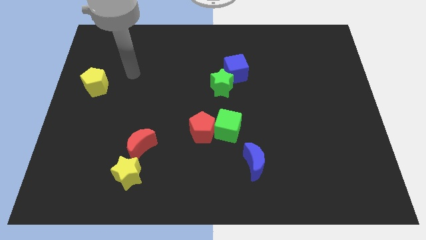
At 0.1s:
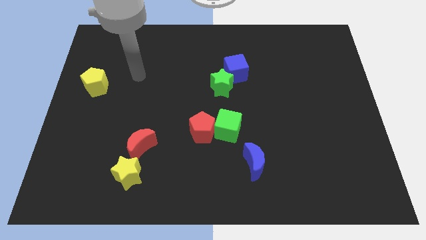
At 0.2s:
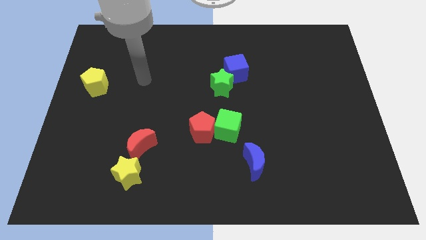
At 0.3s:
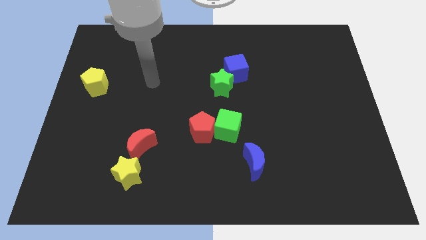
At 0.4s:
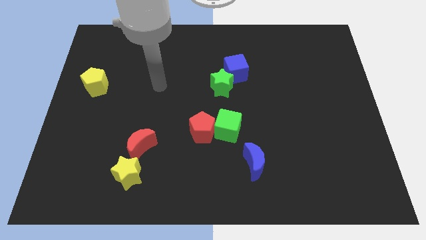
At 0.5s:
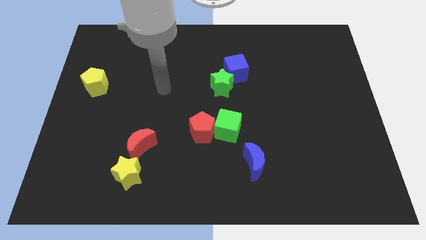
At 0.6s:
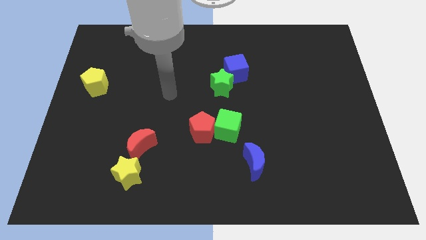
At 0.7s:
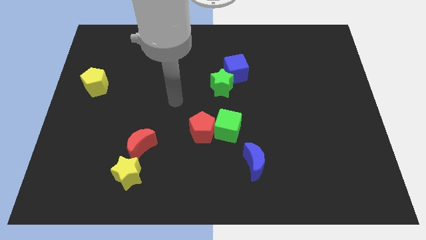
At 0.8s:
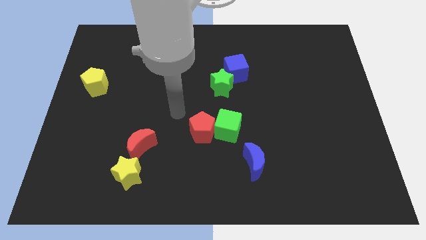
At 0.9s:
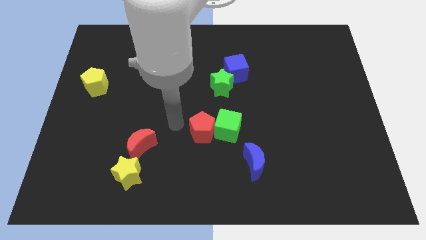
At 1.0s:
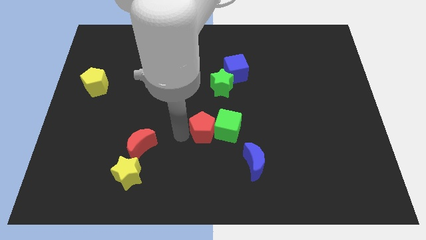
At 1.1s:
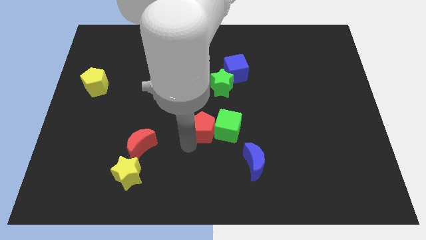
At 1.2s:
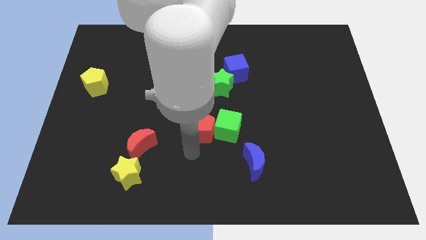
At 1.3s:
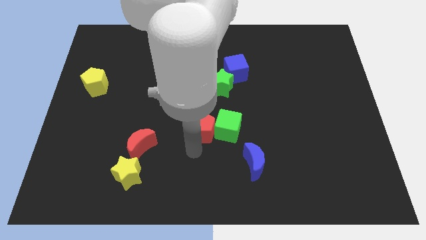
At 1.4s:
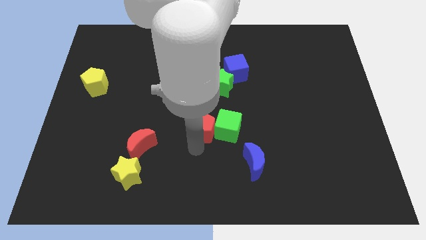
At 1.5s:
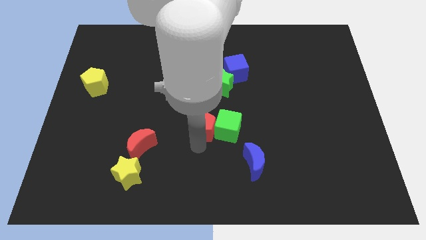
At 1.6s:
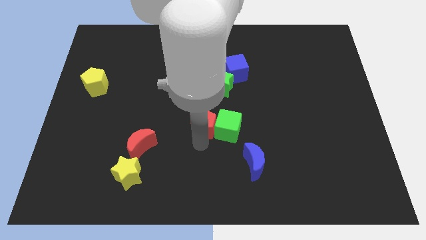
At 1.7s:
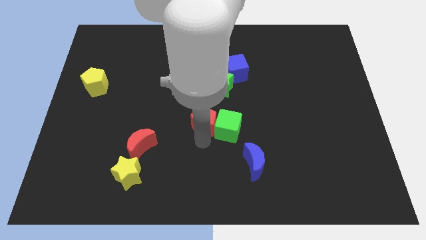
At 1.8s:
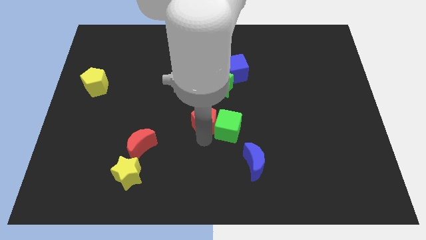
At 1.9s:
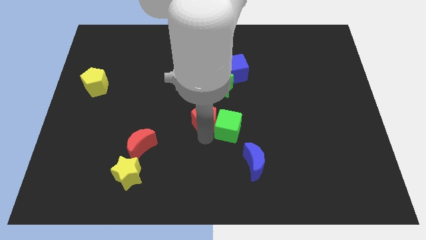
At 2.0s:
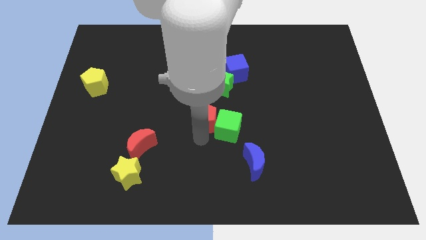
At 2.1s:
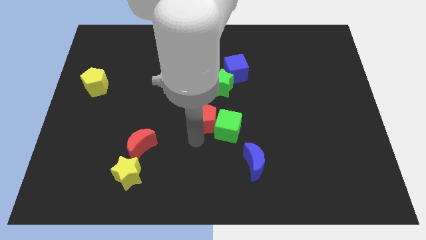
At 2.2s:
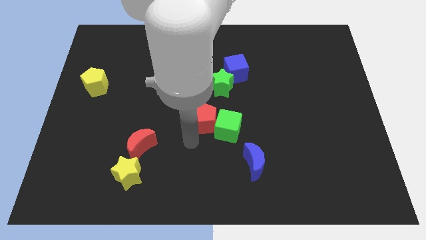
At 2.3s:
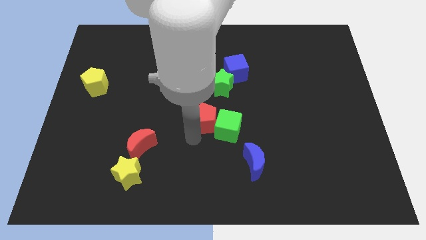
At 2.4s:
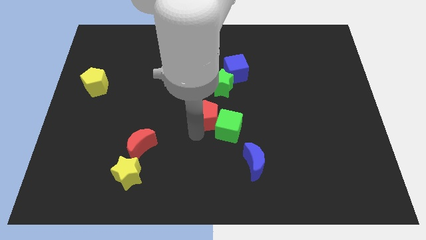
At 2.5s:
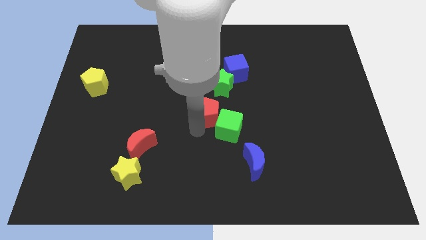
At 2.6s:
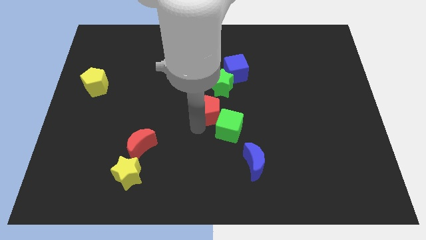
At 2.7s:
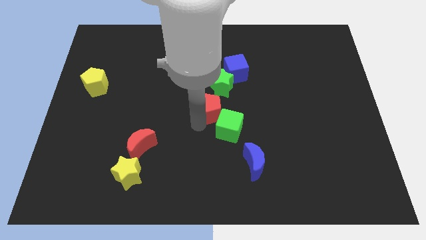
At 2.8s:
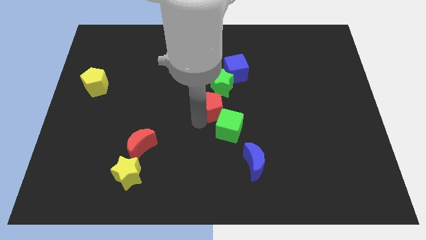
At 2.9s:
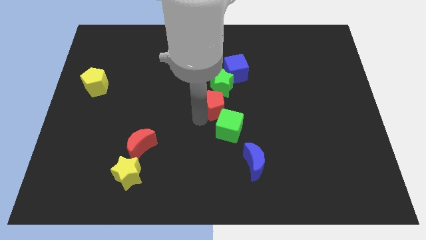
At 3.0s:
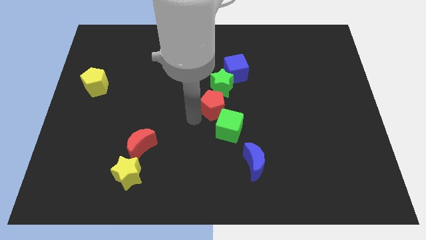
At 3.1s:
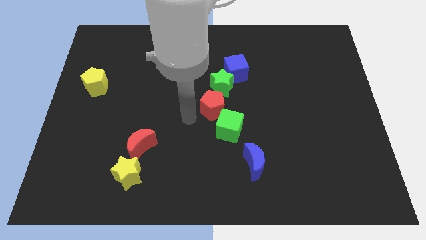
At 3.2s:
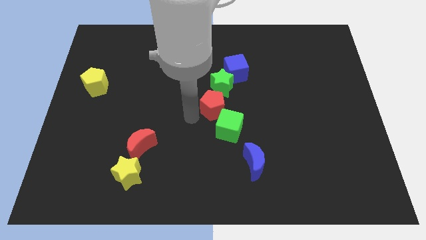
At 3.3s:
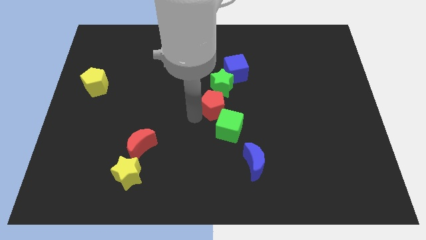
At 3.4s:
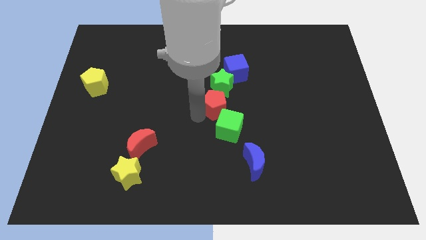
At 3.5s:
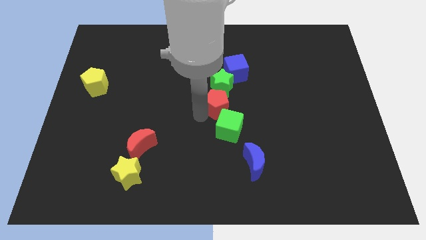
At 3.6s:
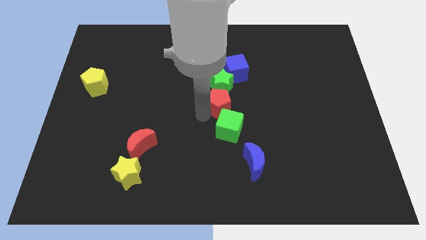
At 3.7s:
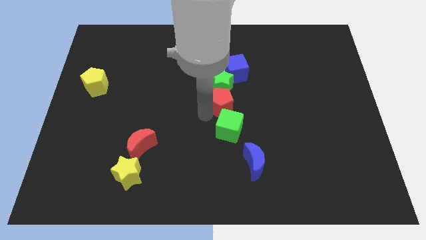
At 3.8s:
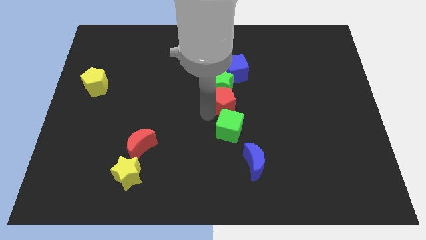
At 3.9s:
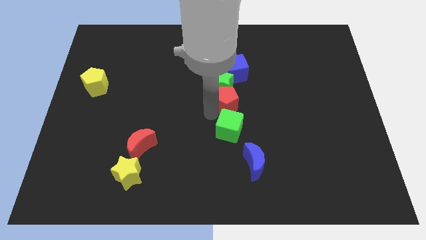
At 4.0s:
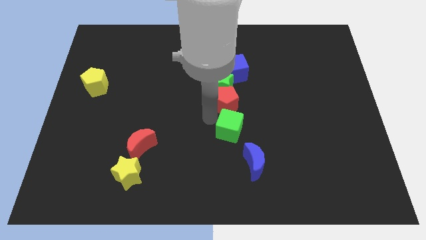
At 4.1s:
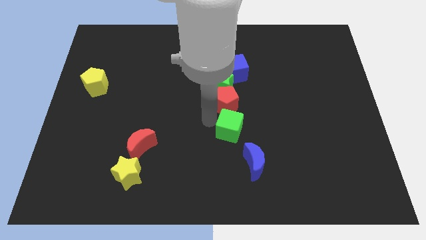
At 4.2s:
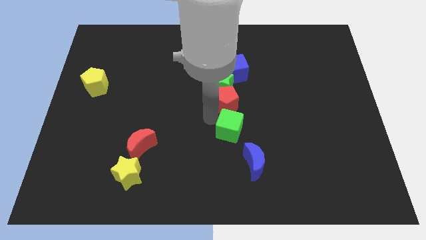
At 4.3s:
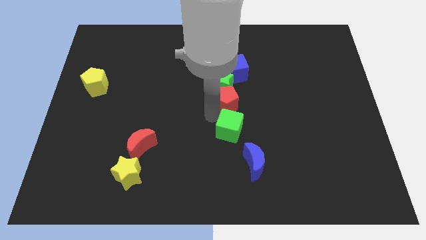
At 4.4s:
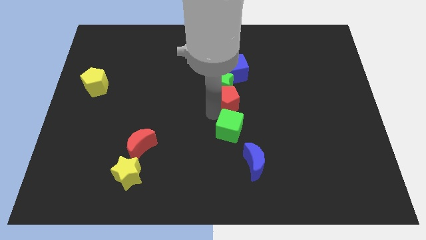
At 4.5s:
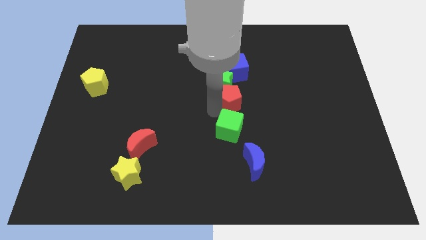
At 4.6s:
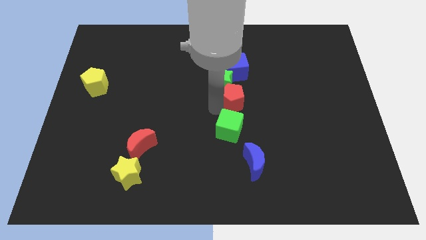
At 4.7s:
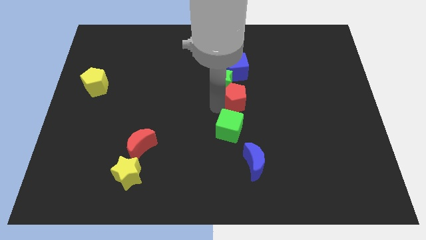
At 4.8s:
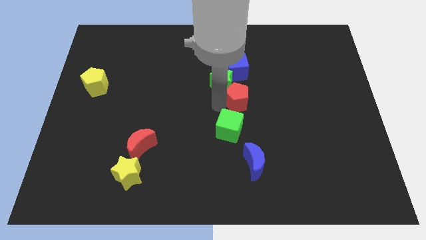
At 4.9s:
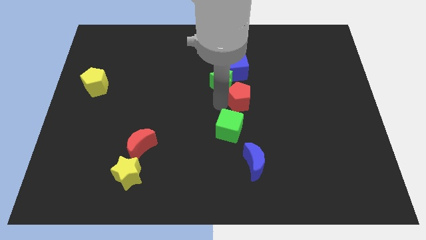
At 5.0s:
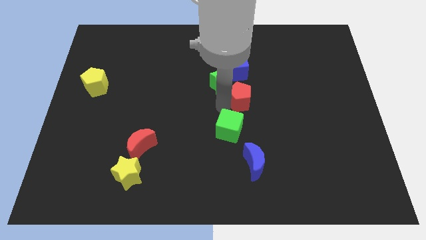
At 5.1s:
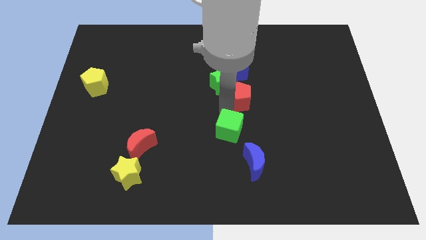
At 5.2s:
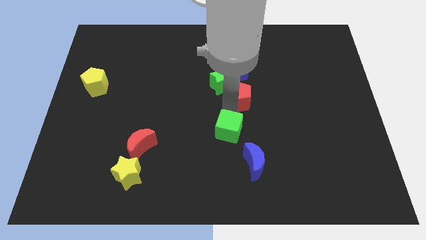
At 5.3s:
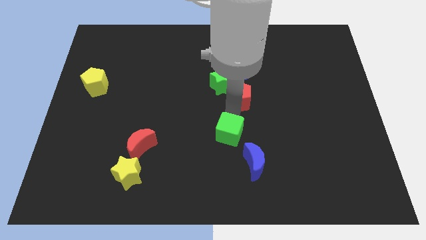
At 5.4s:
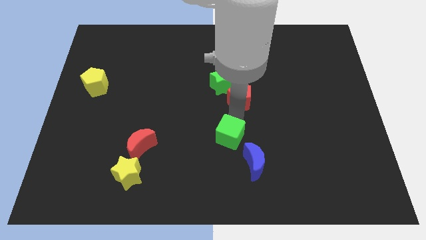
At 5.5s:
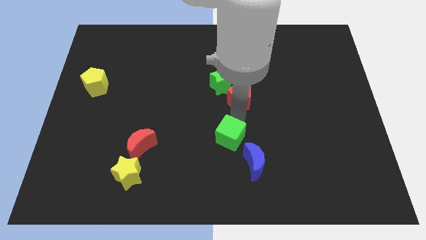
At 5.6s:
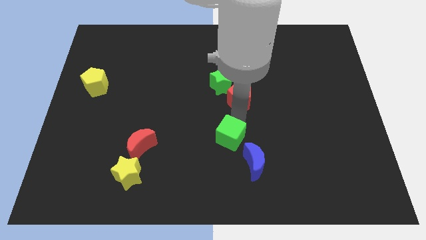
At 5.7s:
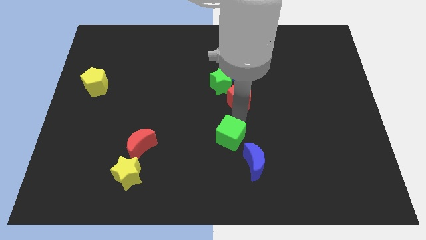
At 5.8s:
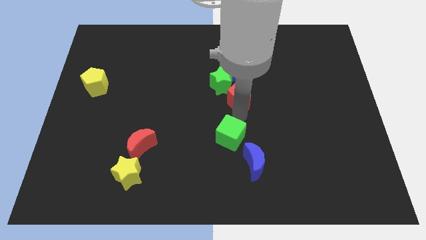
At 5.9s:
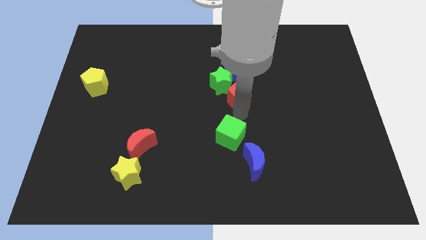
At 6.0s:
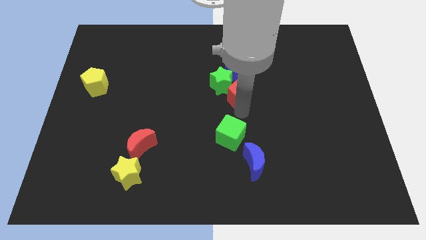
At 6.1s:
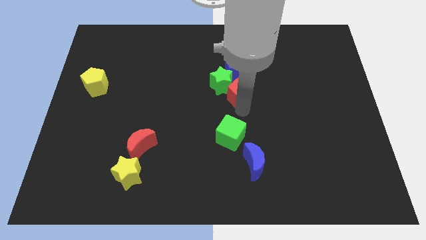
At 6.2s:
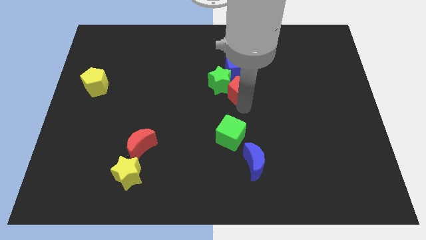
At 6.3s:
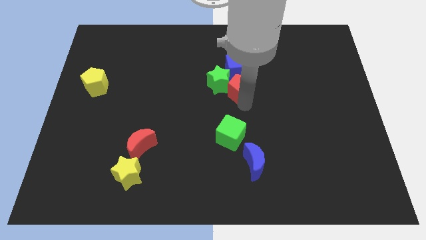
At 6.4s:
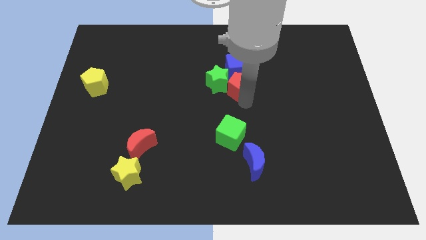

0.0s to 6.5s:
put the red pentagon close to the blue cube

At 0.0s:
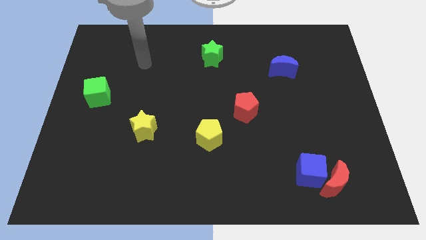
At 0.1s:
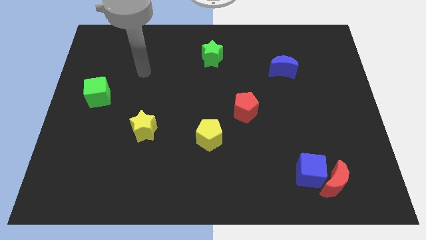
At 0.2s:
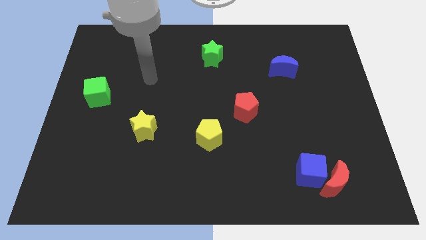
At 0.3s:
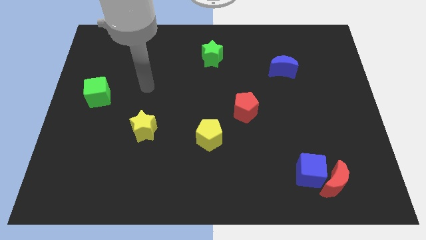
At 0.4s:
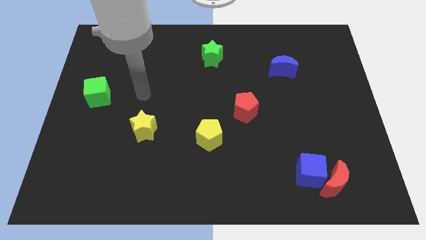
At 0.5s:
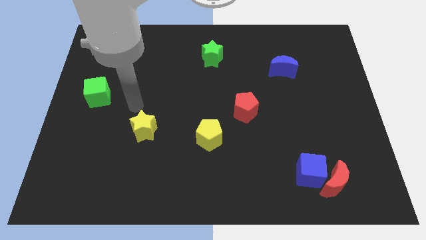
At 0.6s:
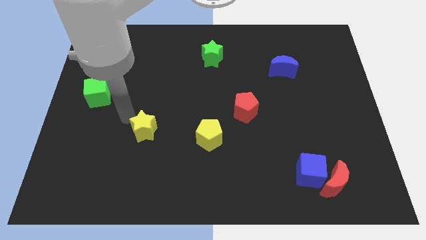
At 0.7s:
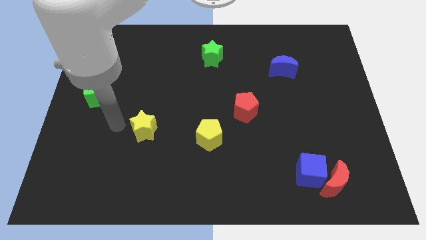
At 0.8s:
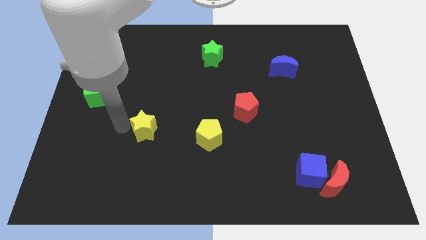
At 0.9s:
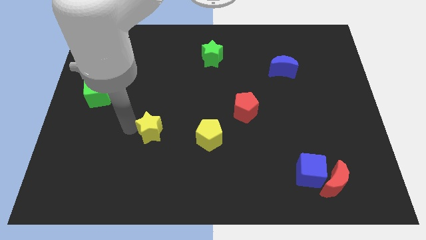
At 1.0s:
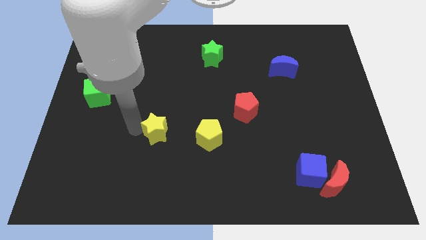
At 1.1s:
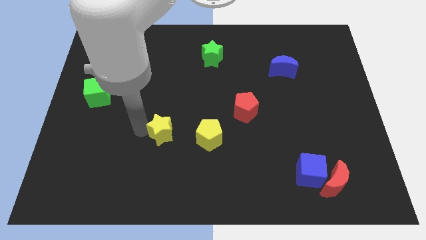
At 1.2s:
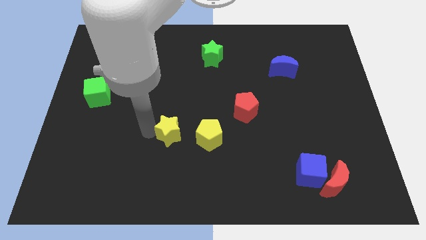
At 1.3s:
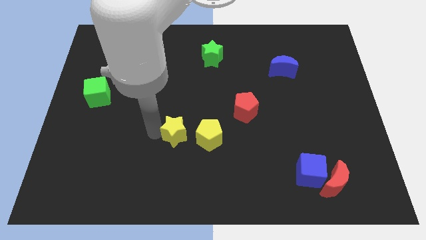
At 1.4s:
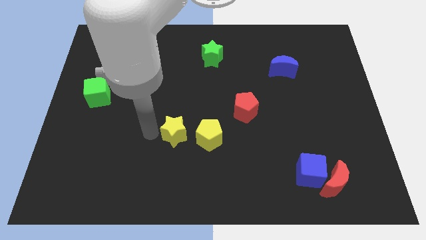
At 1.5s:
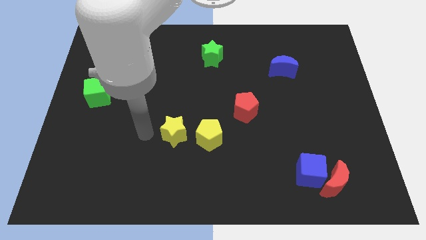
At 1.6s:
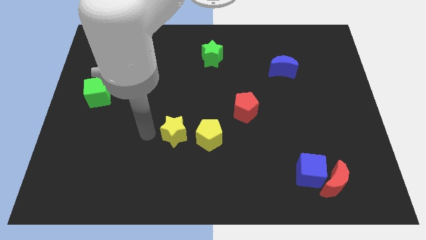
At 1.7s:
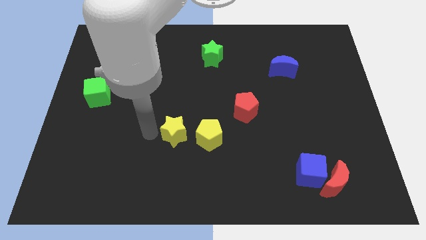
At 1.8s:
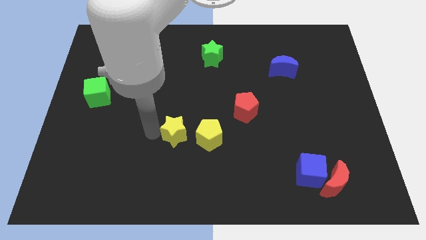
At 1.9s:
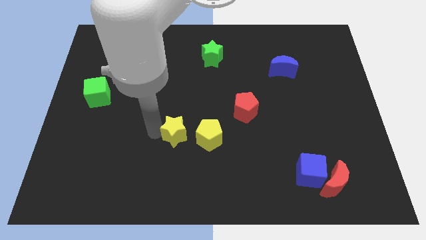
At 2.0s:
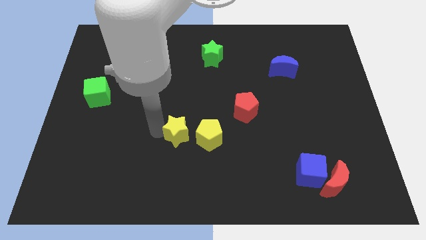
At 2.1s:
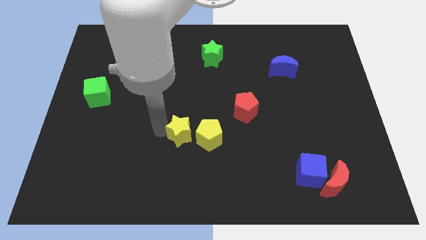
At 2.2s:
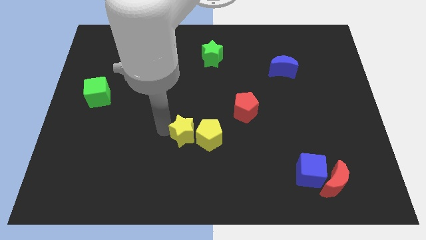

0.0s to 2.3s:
put the yellow star towards the yellow pentagon

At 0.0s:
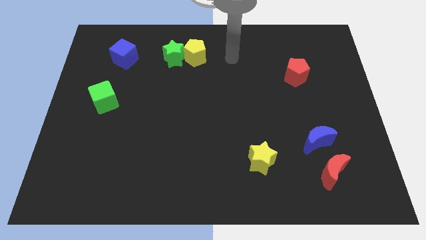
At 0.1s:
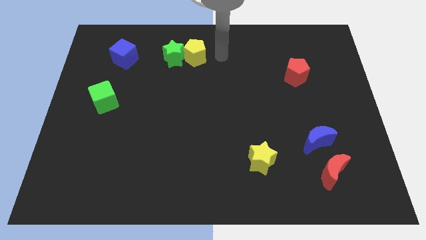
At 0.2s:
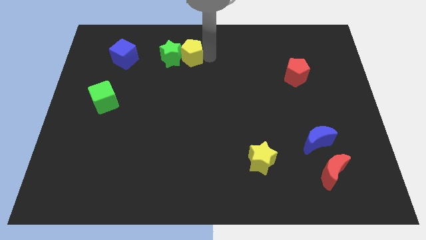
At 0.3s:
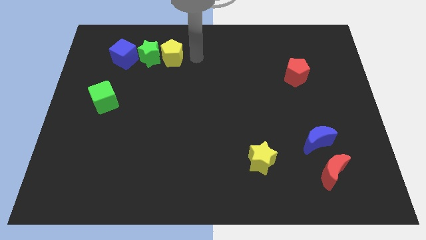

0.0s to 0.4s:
put the green star towards the blue cube
